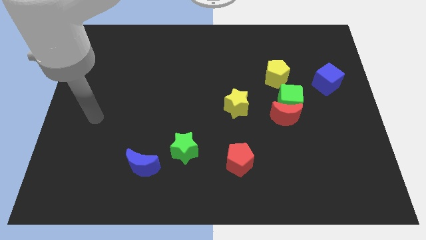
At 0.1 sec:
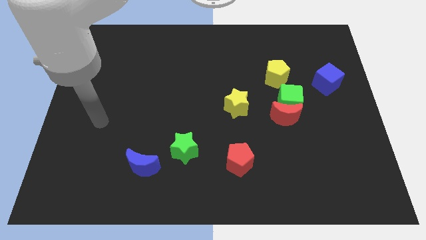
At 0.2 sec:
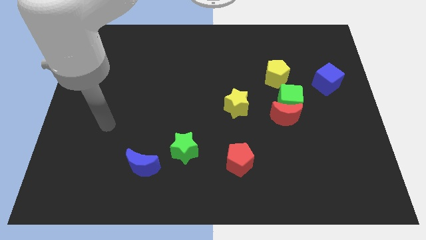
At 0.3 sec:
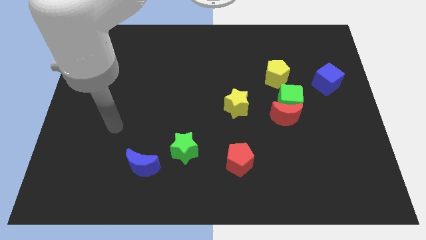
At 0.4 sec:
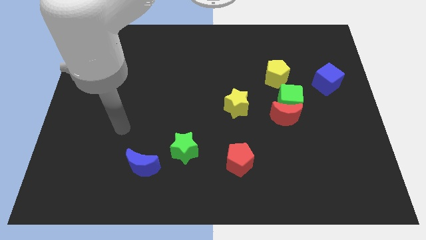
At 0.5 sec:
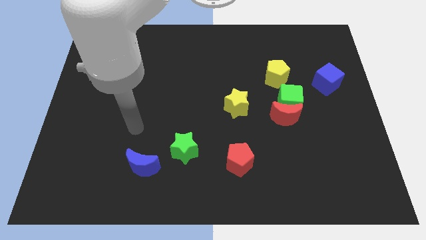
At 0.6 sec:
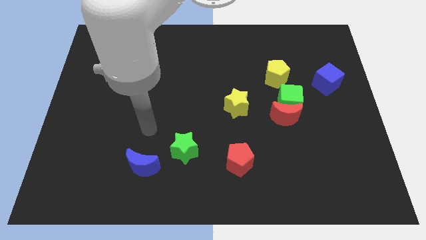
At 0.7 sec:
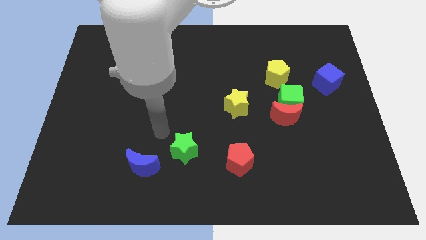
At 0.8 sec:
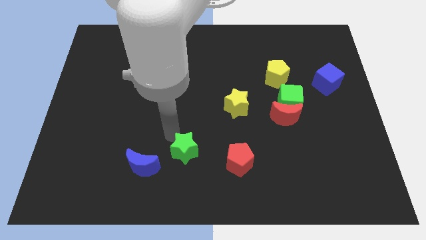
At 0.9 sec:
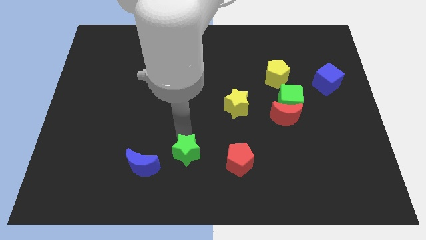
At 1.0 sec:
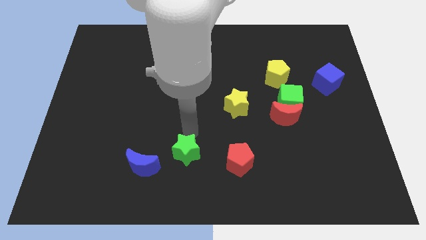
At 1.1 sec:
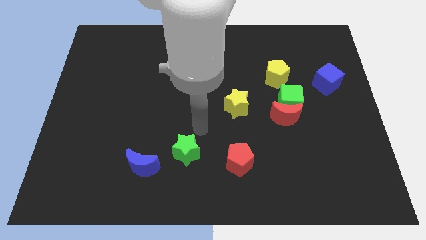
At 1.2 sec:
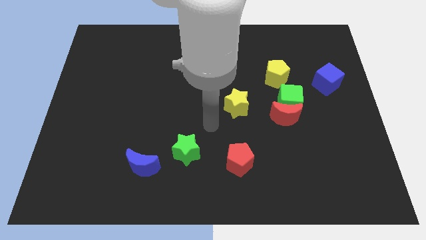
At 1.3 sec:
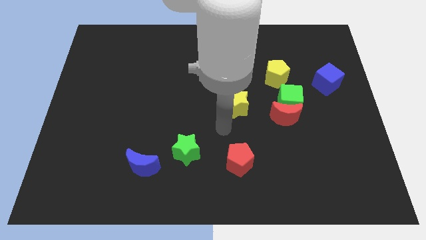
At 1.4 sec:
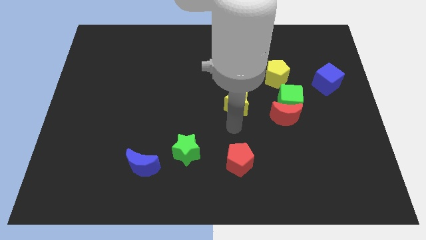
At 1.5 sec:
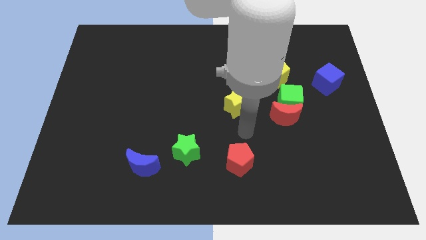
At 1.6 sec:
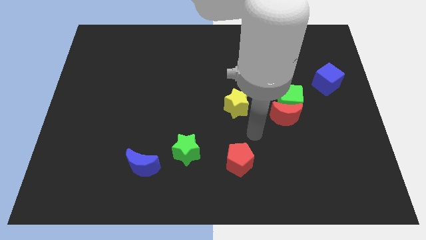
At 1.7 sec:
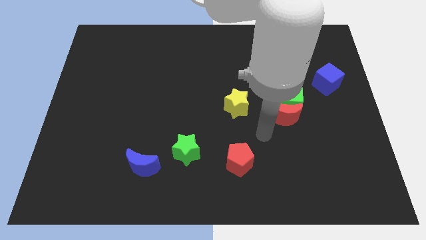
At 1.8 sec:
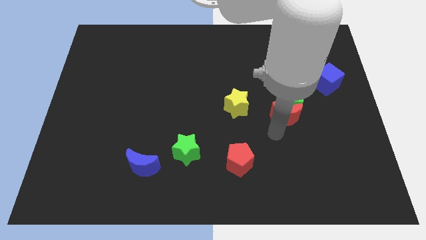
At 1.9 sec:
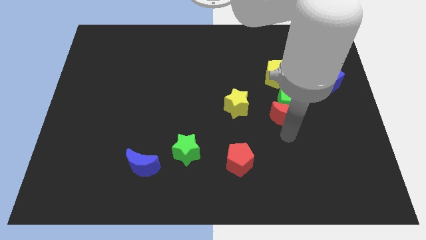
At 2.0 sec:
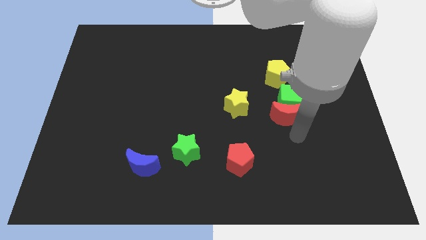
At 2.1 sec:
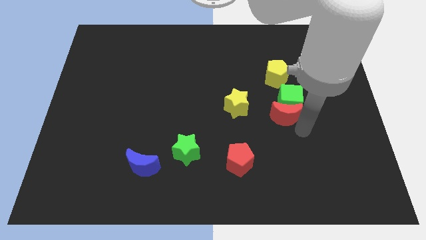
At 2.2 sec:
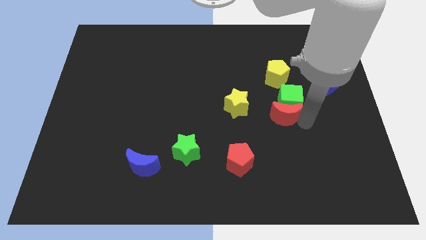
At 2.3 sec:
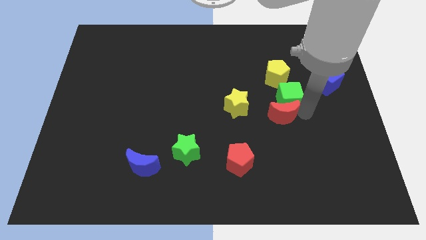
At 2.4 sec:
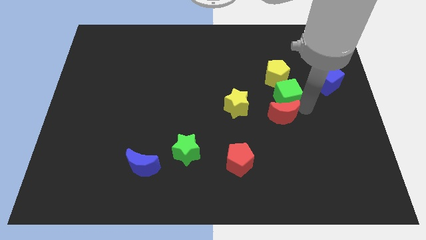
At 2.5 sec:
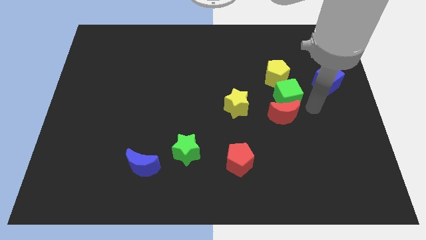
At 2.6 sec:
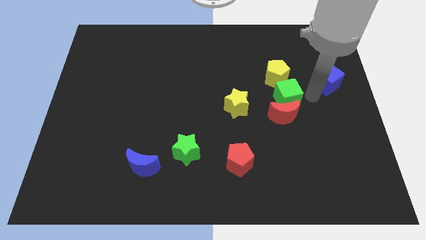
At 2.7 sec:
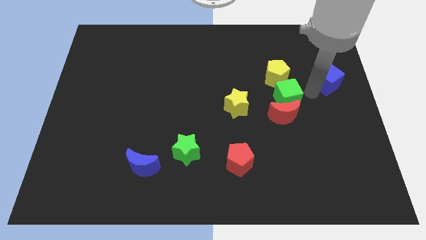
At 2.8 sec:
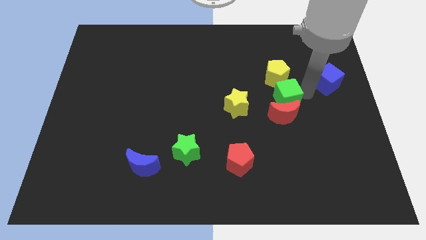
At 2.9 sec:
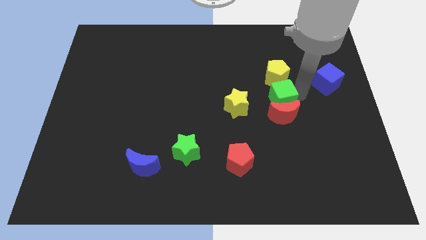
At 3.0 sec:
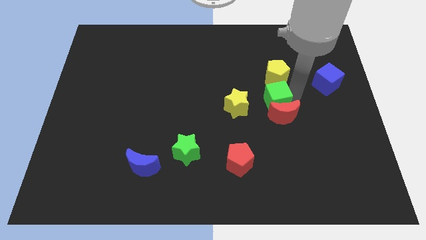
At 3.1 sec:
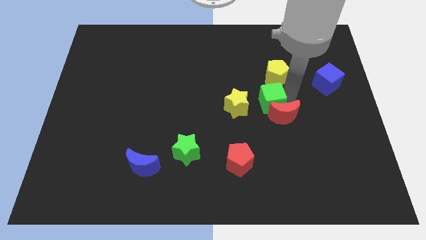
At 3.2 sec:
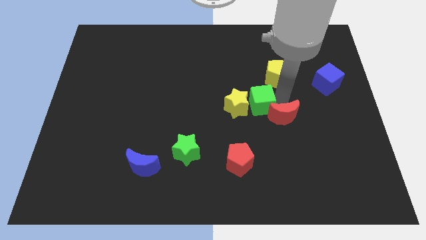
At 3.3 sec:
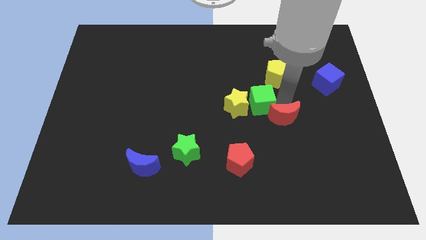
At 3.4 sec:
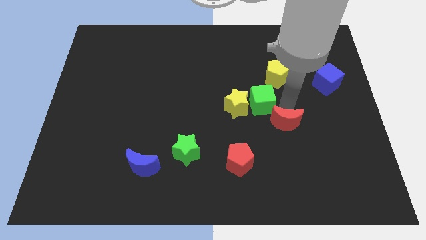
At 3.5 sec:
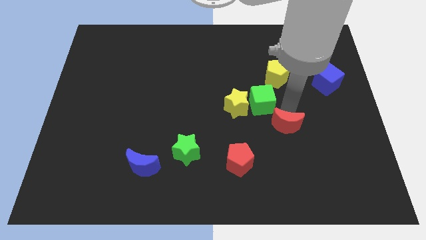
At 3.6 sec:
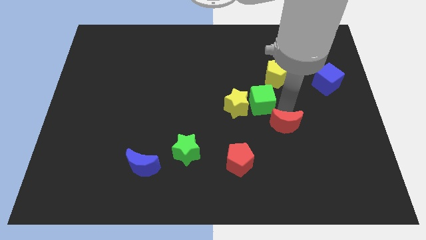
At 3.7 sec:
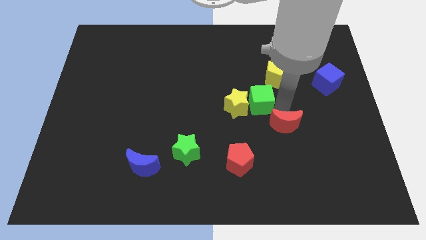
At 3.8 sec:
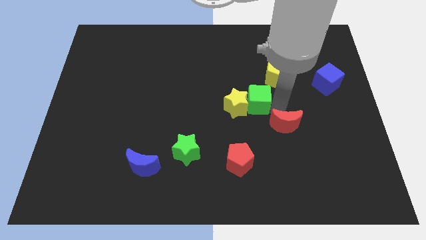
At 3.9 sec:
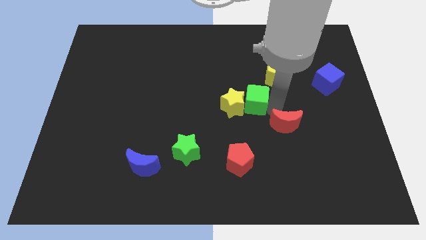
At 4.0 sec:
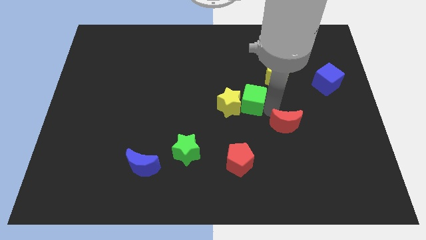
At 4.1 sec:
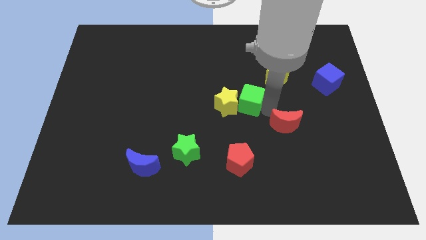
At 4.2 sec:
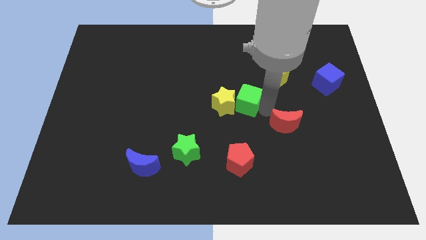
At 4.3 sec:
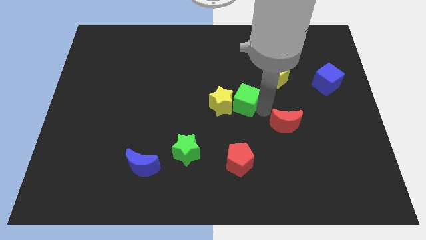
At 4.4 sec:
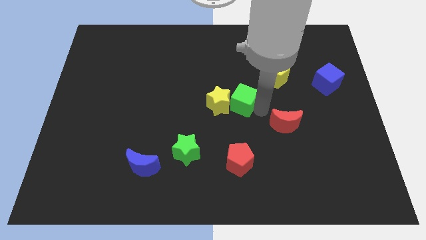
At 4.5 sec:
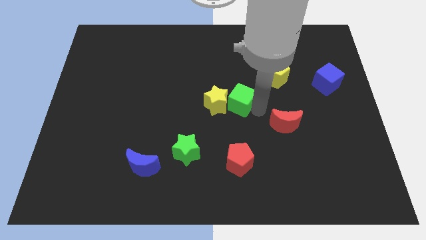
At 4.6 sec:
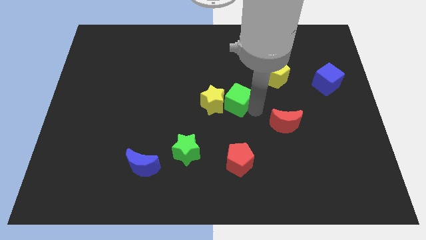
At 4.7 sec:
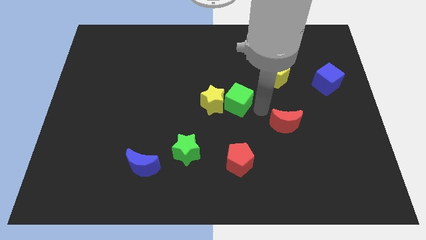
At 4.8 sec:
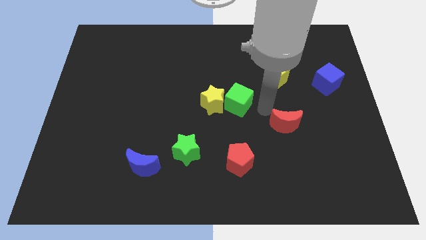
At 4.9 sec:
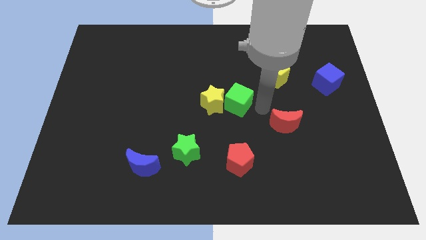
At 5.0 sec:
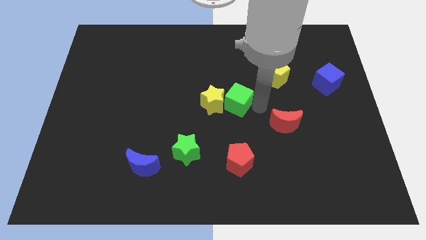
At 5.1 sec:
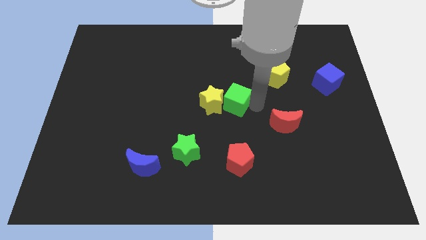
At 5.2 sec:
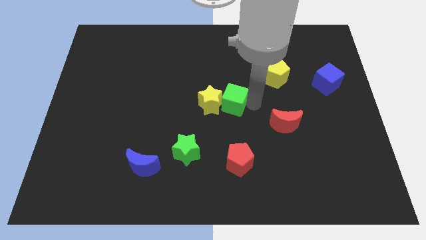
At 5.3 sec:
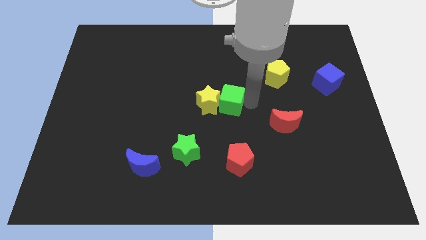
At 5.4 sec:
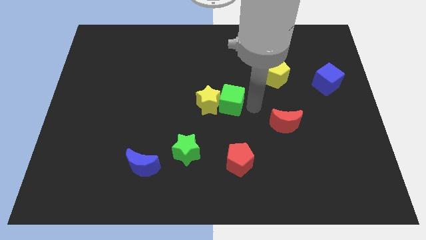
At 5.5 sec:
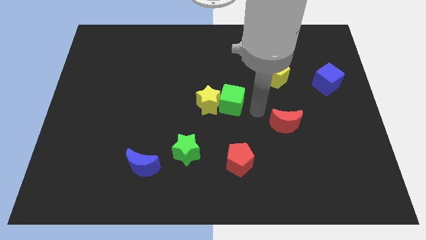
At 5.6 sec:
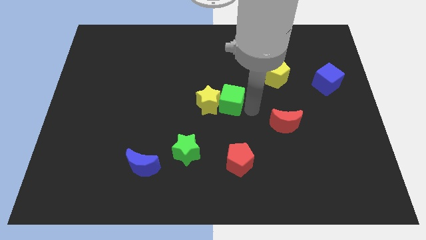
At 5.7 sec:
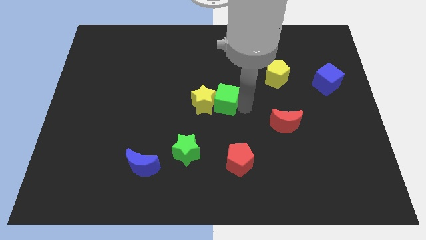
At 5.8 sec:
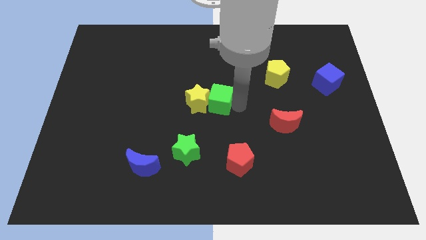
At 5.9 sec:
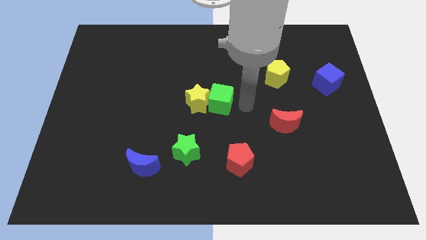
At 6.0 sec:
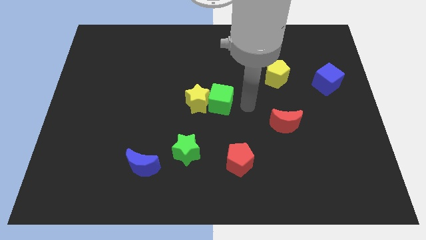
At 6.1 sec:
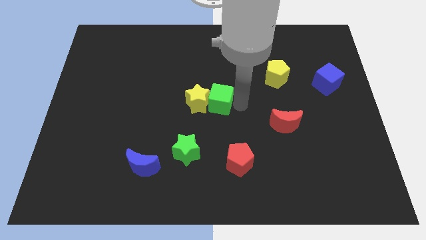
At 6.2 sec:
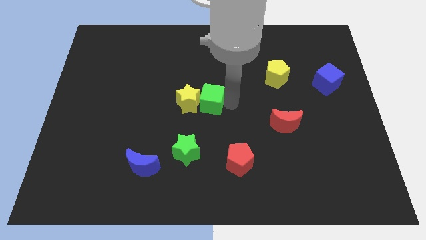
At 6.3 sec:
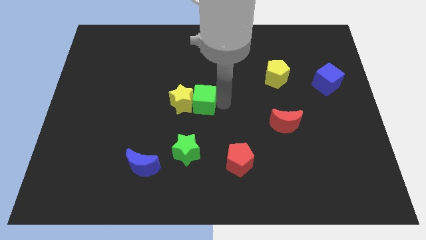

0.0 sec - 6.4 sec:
slide the green cube left

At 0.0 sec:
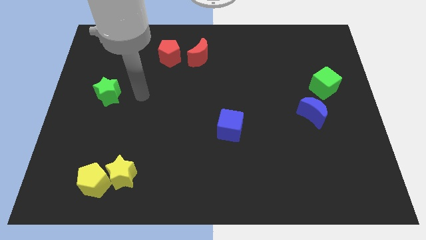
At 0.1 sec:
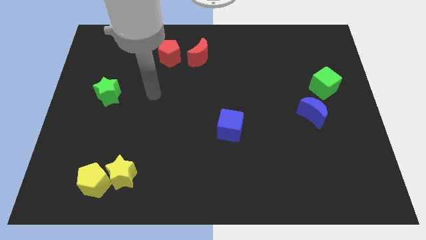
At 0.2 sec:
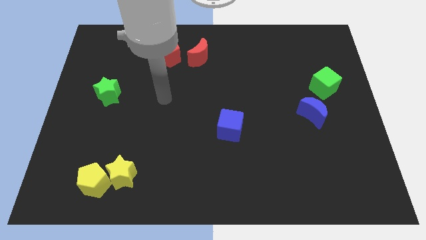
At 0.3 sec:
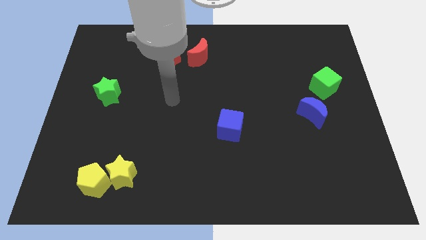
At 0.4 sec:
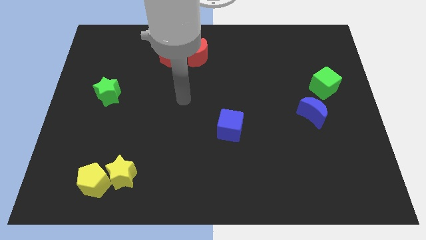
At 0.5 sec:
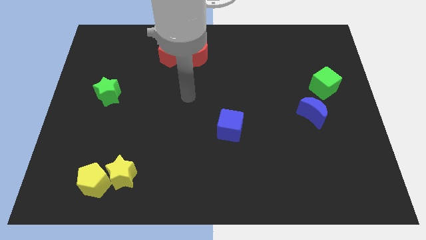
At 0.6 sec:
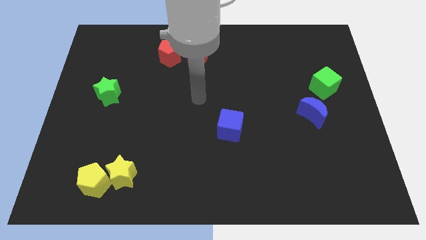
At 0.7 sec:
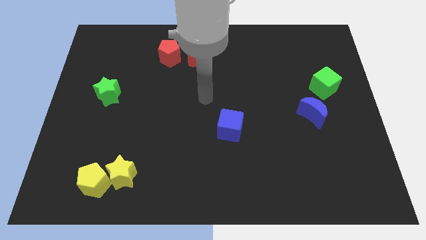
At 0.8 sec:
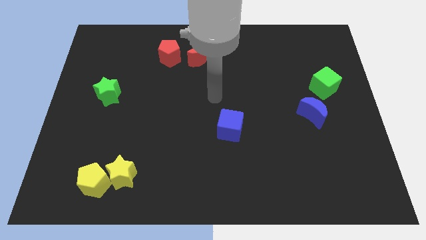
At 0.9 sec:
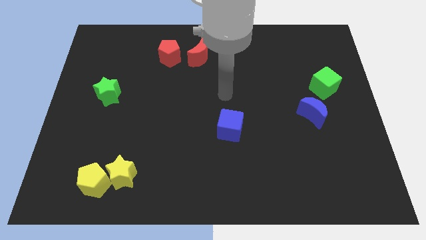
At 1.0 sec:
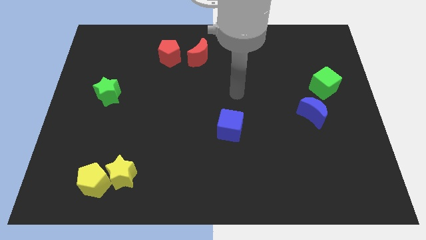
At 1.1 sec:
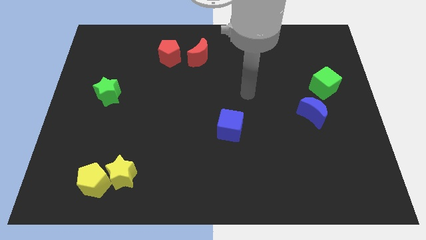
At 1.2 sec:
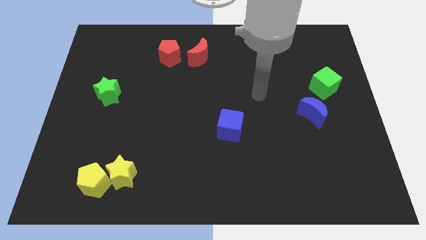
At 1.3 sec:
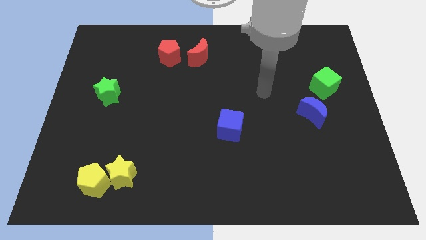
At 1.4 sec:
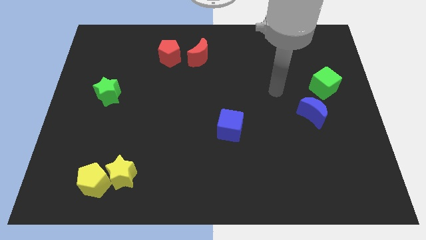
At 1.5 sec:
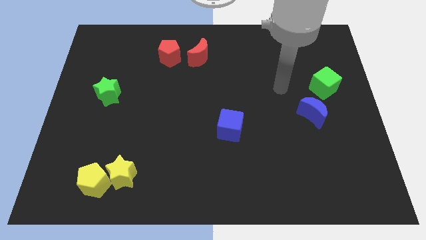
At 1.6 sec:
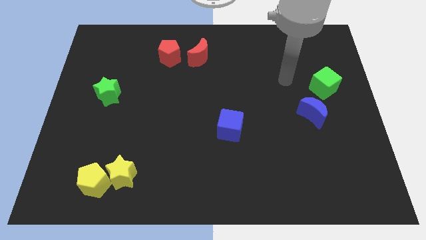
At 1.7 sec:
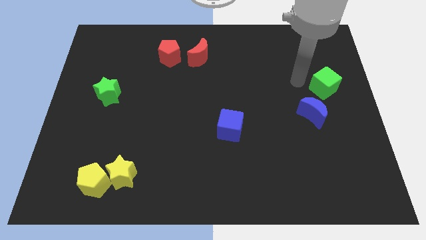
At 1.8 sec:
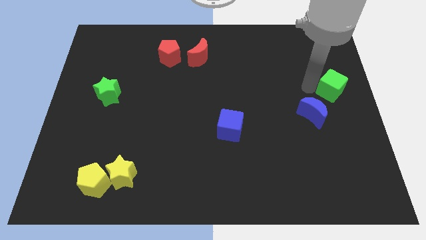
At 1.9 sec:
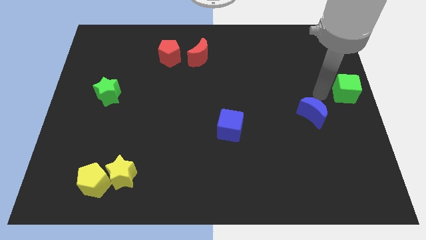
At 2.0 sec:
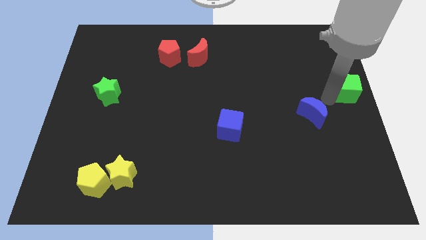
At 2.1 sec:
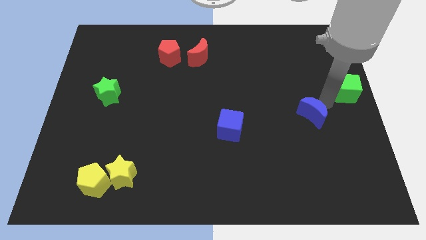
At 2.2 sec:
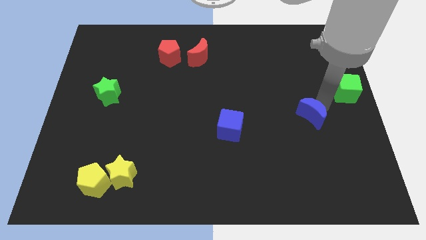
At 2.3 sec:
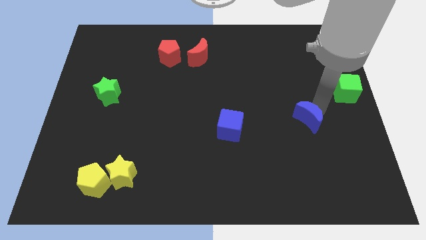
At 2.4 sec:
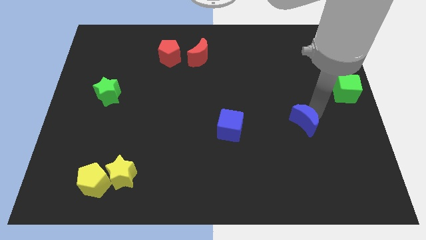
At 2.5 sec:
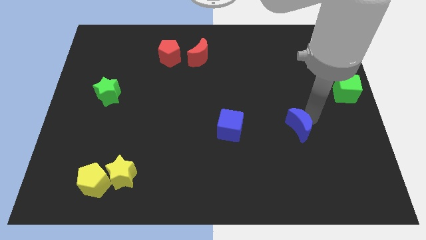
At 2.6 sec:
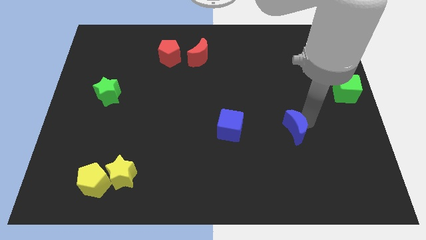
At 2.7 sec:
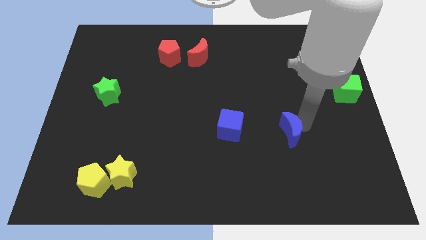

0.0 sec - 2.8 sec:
slightly push the blue moon downwards and to the left
